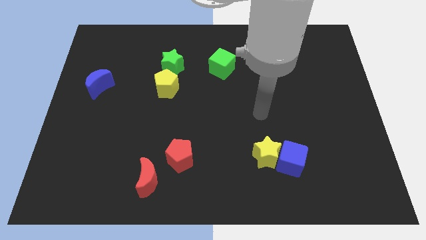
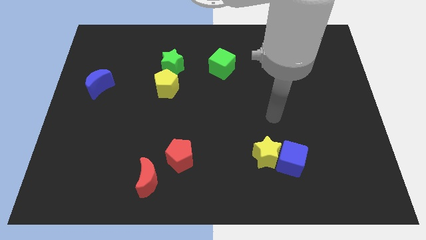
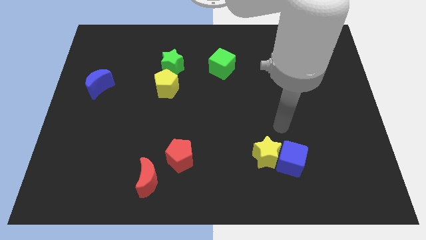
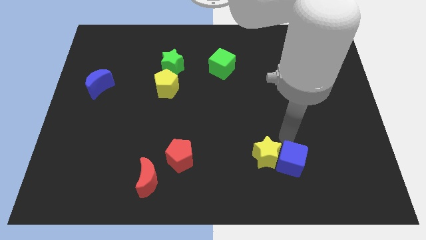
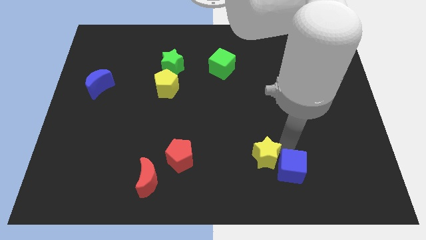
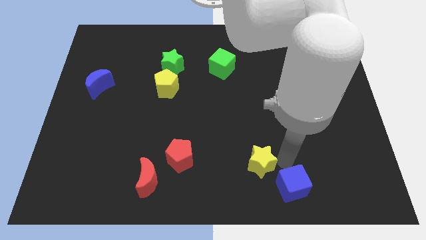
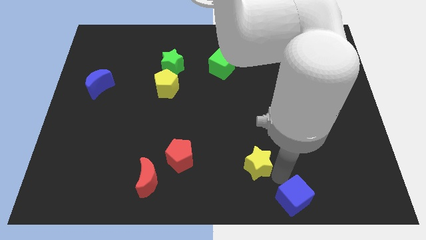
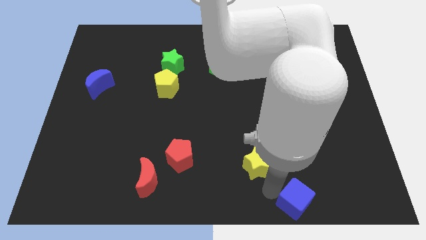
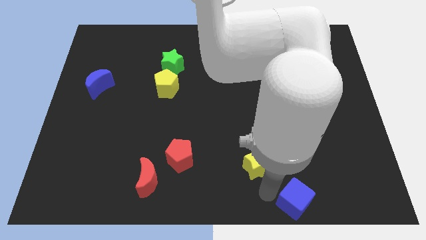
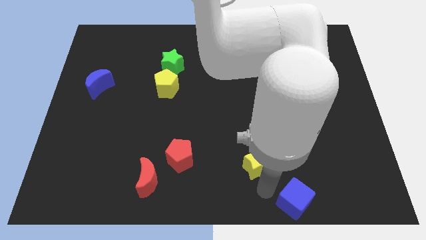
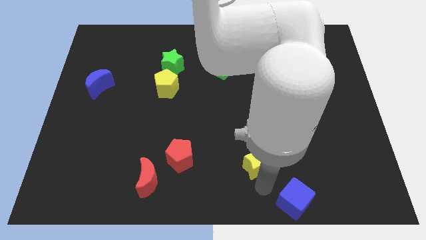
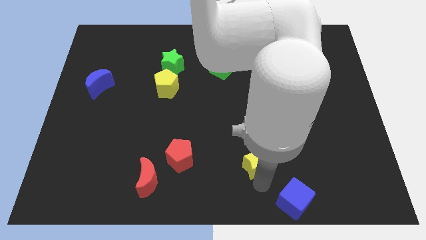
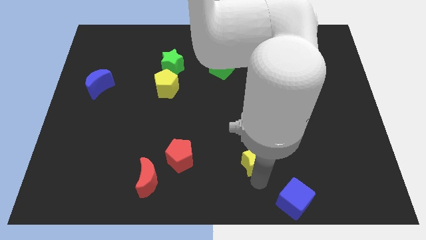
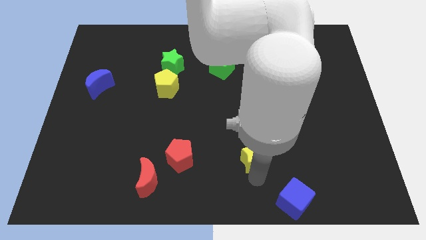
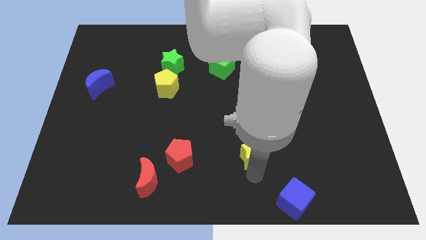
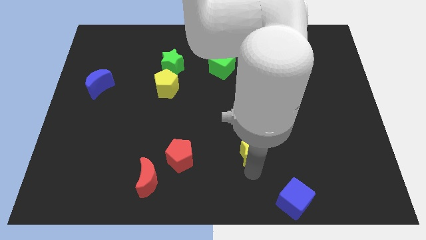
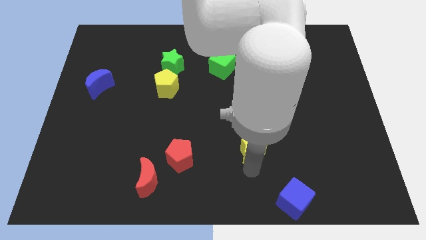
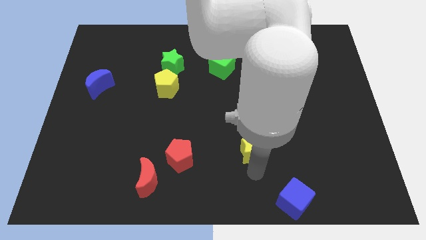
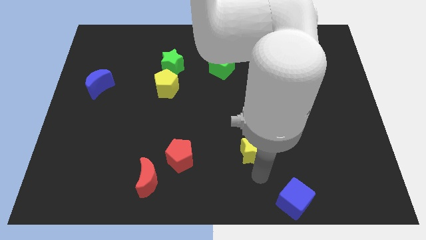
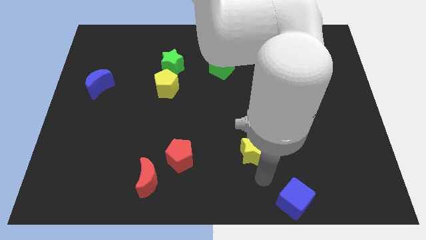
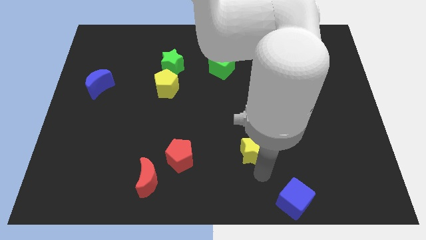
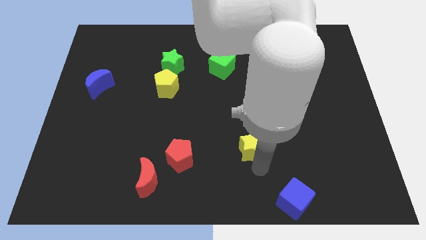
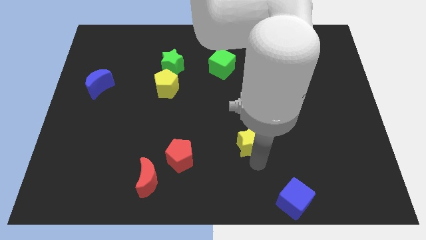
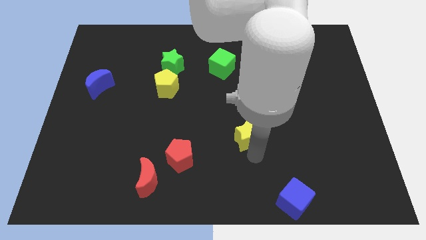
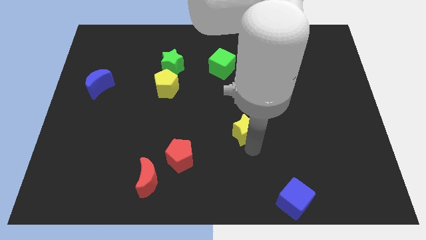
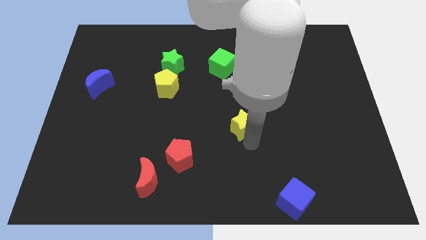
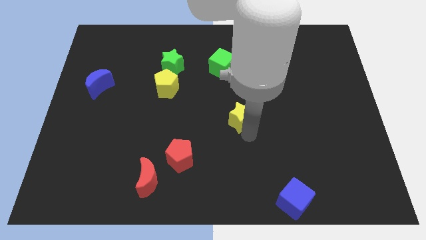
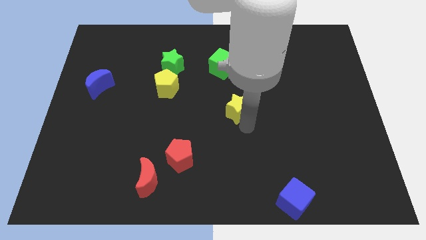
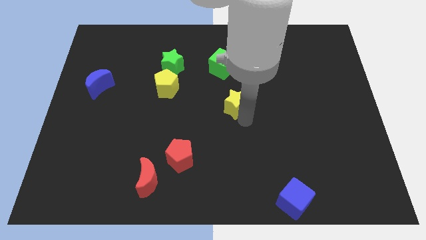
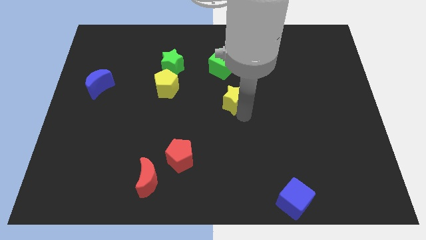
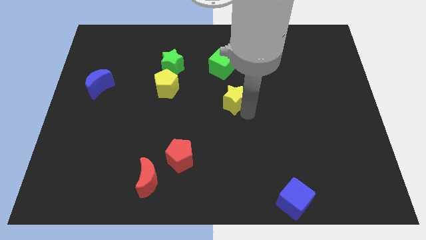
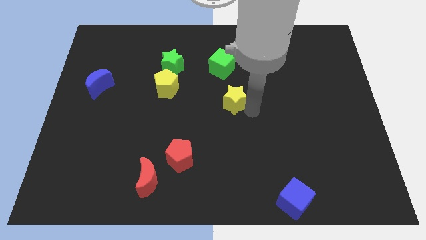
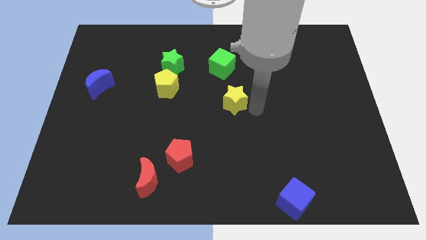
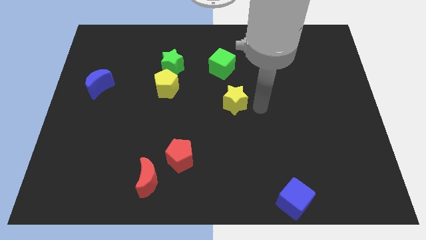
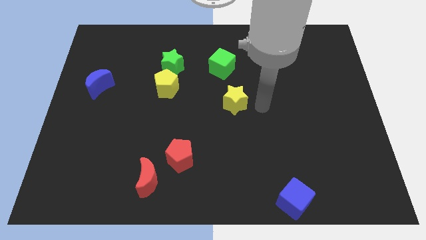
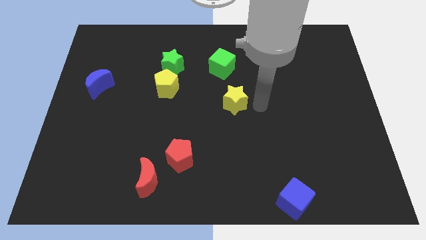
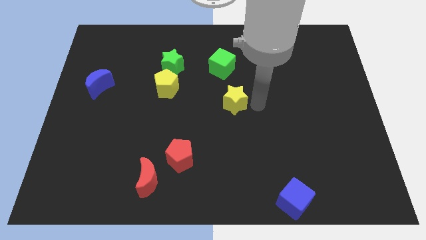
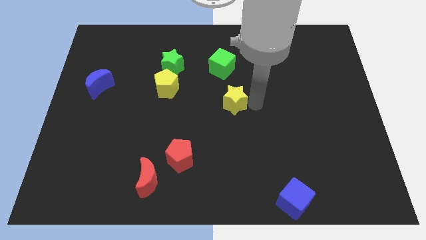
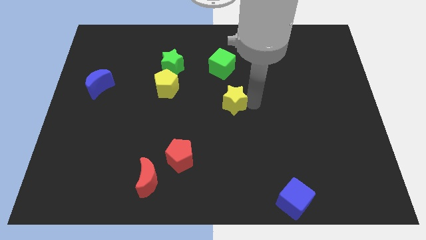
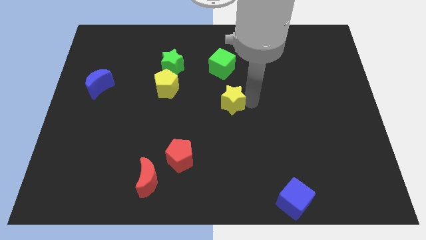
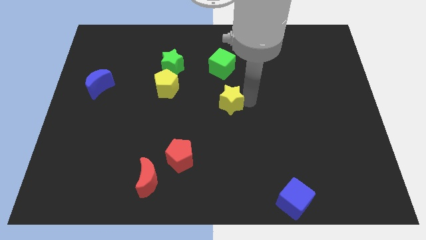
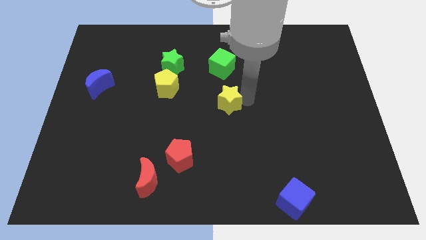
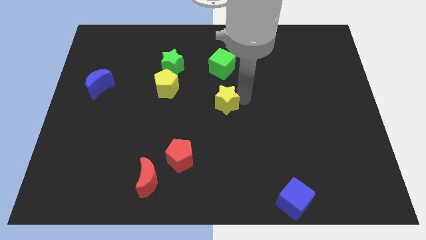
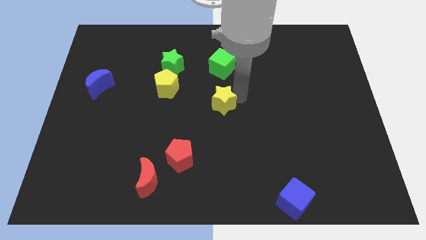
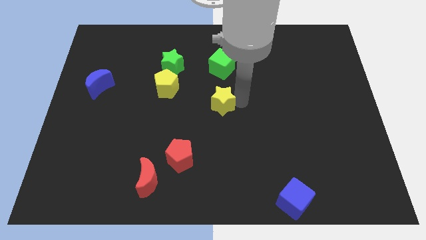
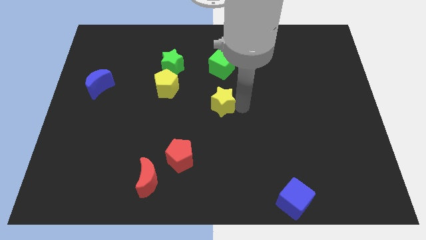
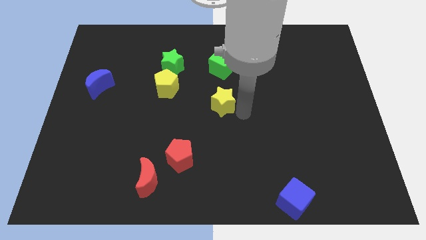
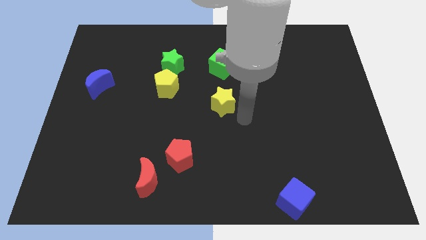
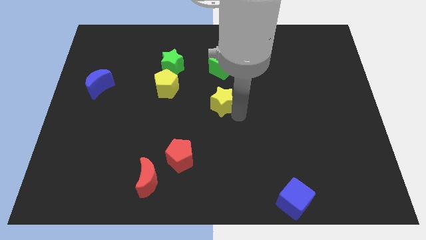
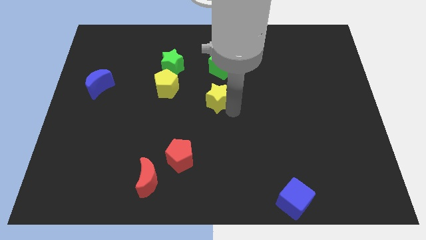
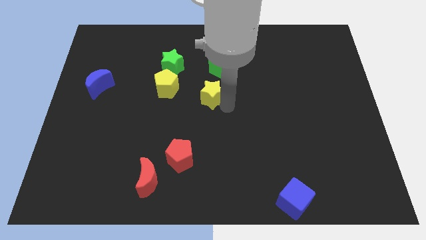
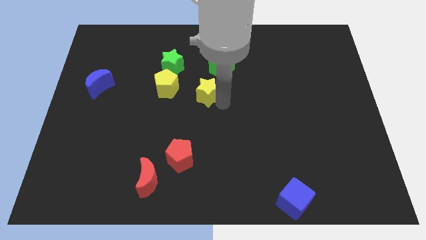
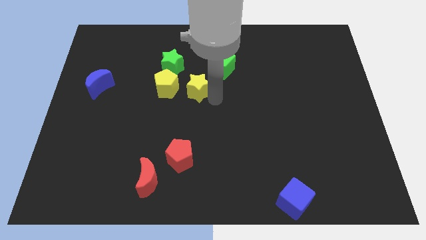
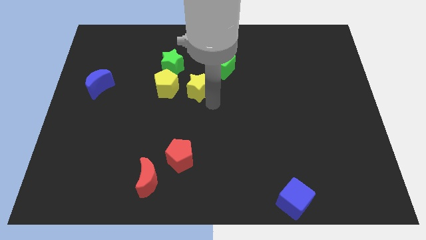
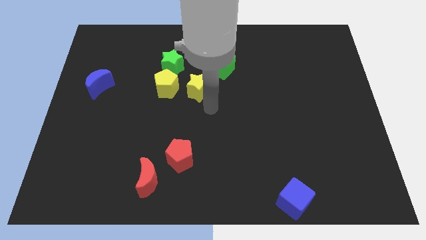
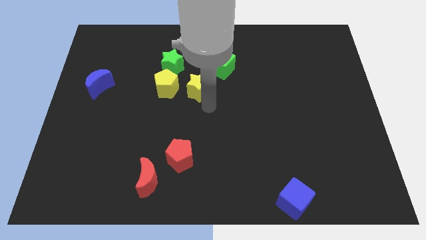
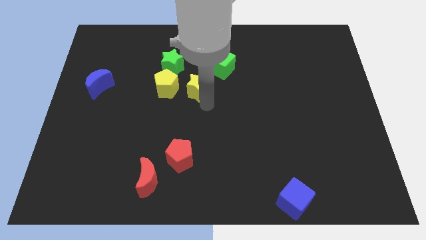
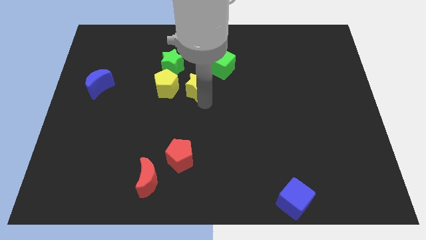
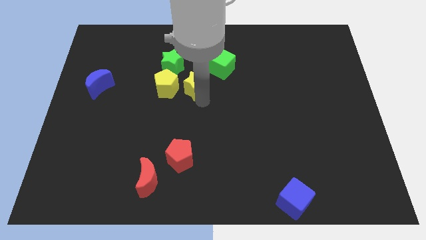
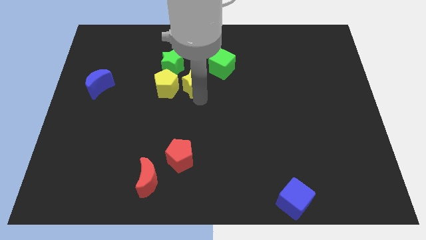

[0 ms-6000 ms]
move the yellow star to the top right of the yellow pentagon

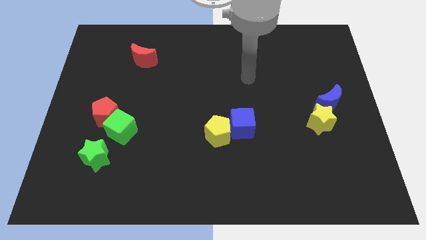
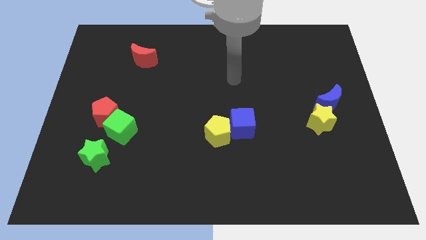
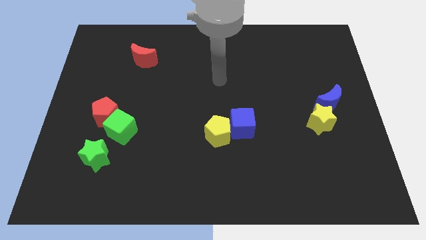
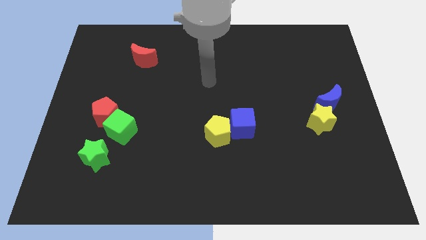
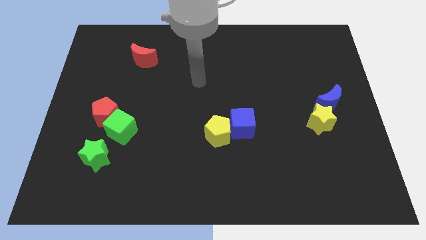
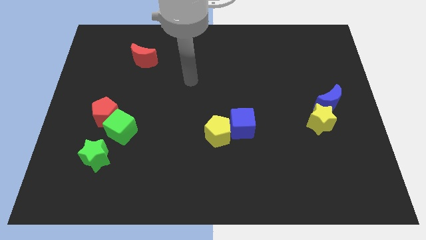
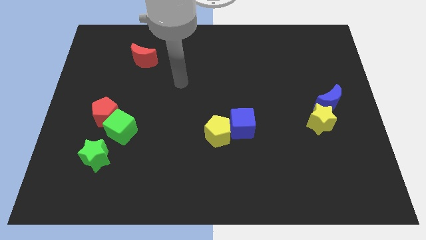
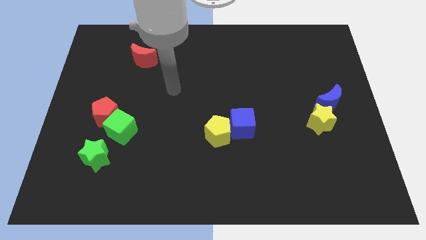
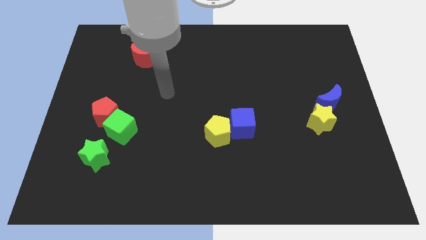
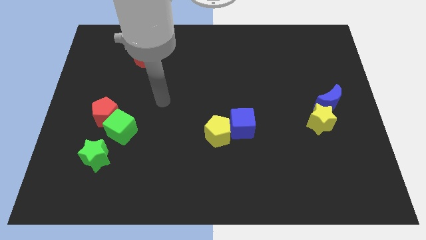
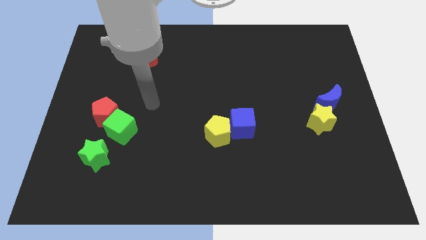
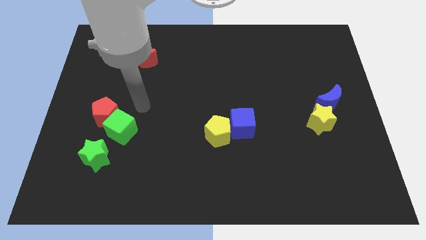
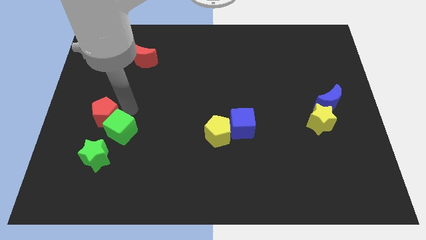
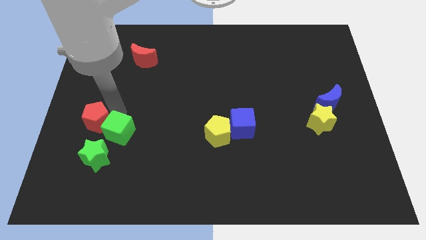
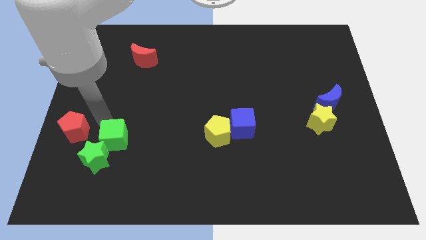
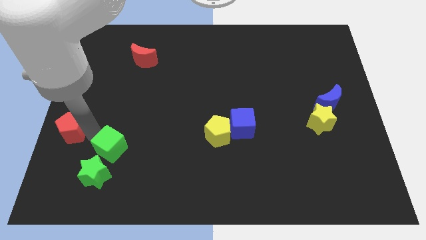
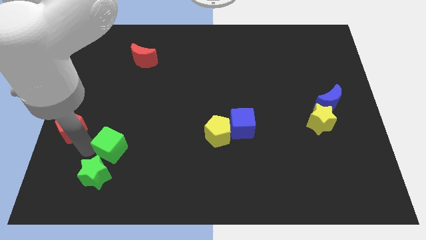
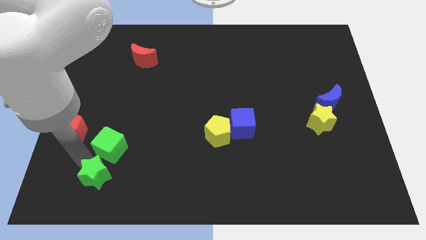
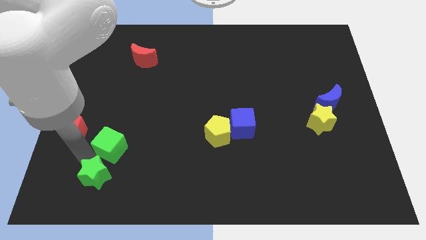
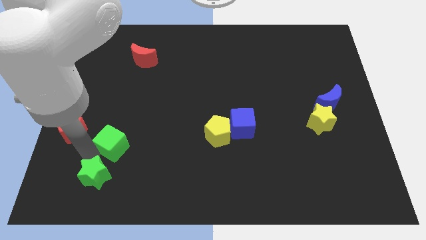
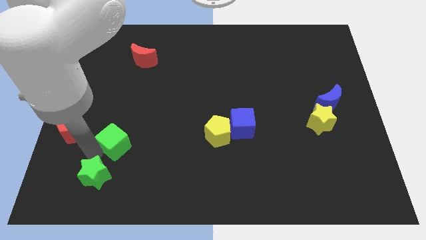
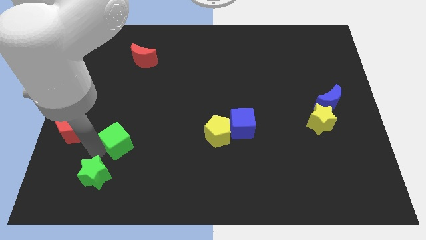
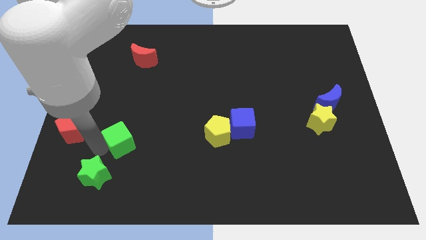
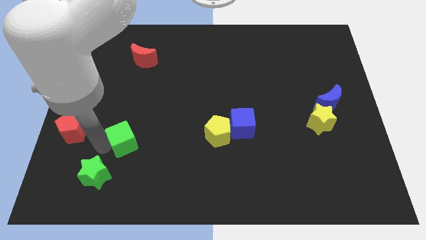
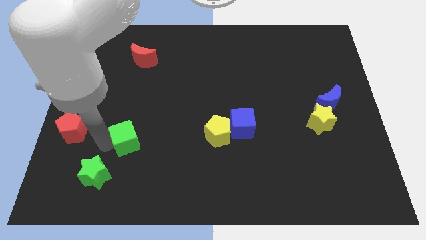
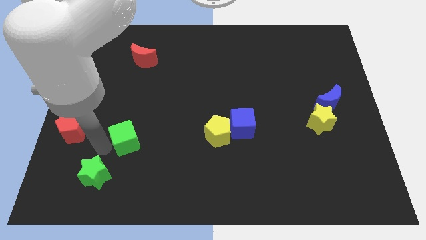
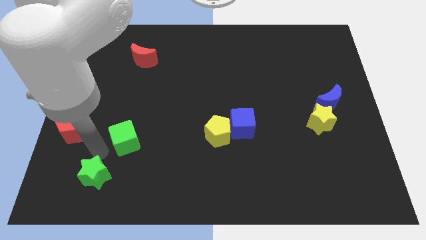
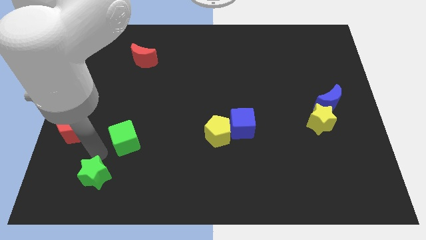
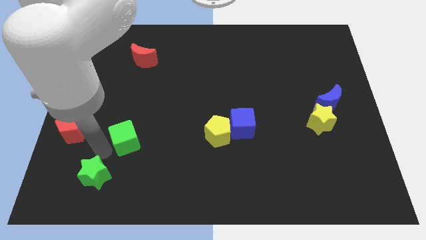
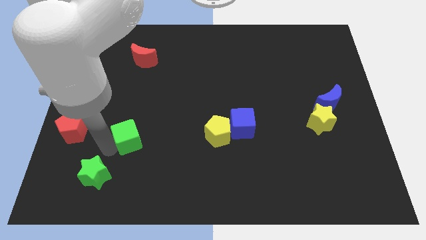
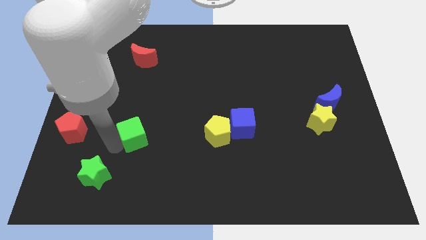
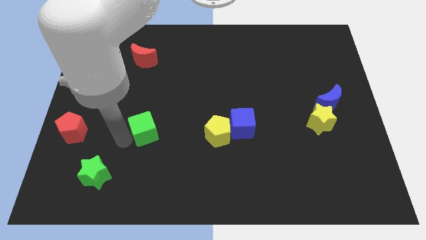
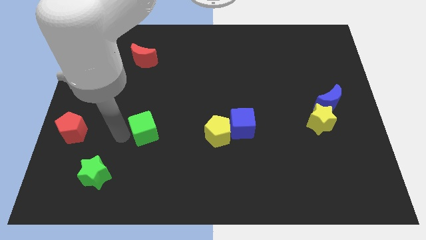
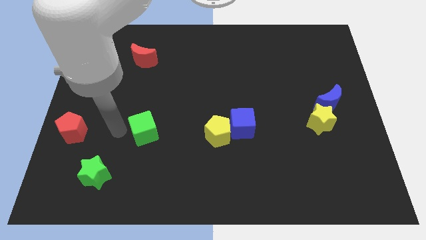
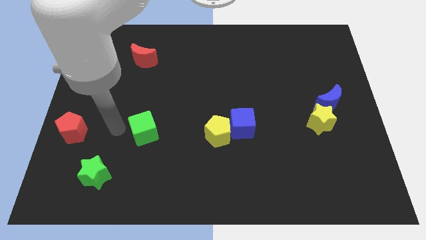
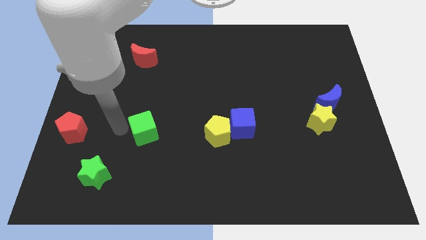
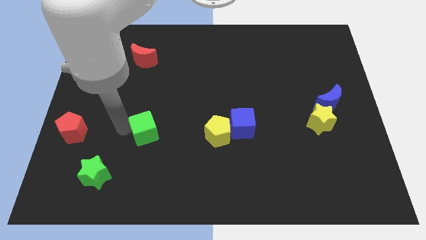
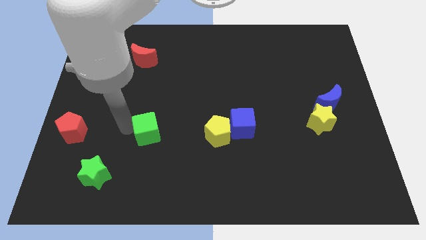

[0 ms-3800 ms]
move the green cube to the left of the yellow pentagon
